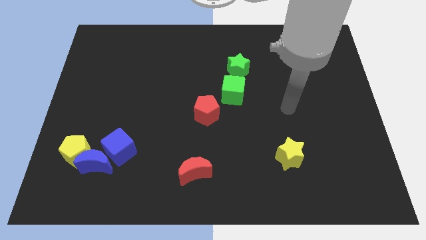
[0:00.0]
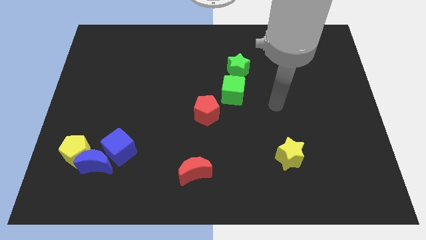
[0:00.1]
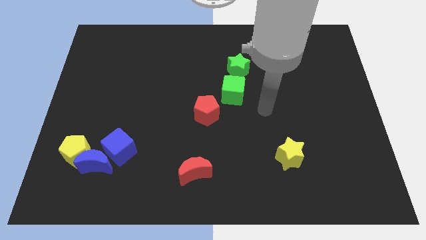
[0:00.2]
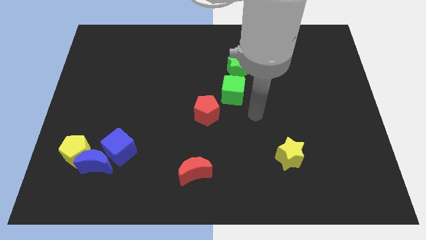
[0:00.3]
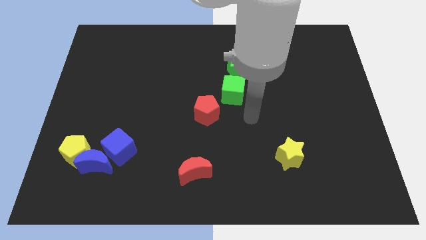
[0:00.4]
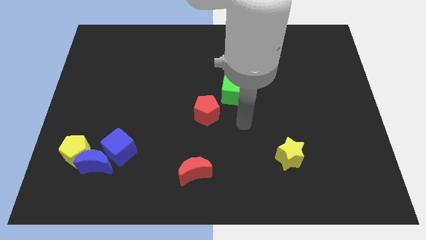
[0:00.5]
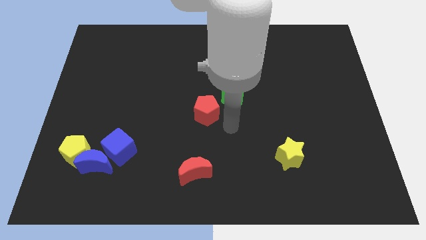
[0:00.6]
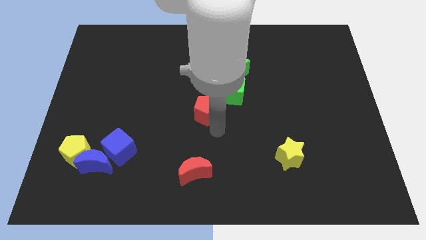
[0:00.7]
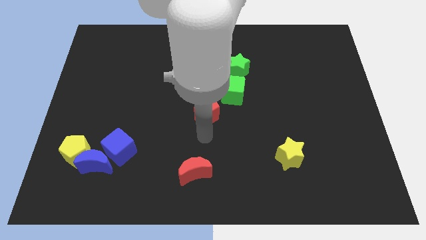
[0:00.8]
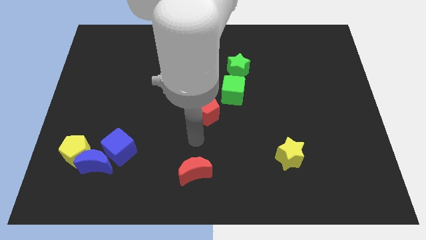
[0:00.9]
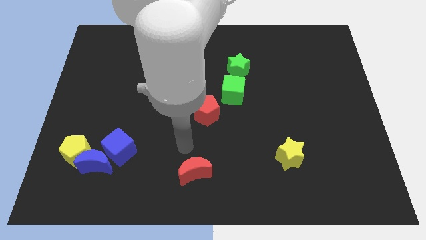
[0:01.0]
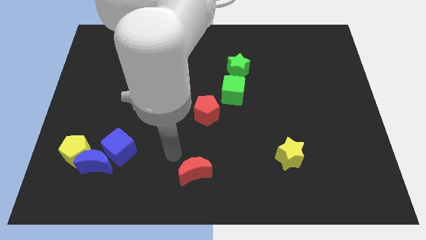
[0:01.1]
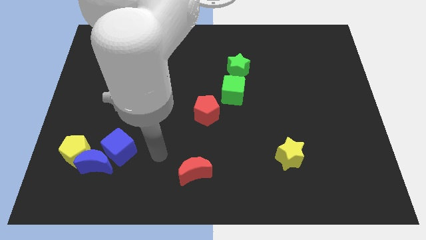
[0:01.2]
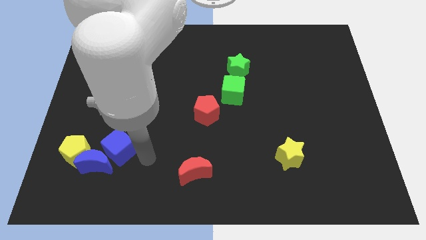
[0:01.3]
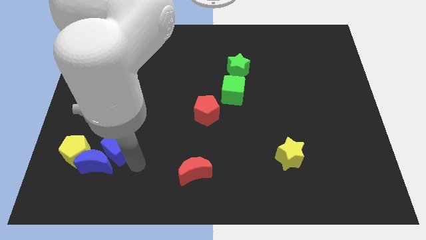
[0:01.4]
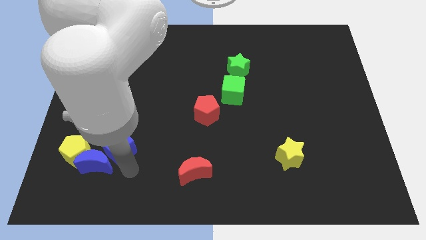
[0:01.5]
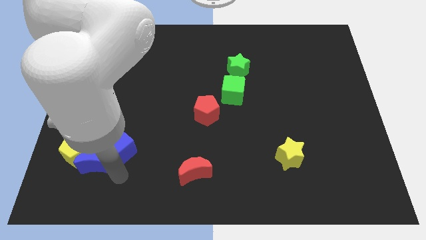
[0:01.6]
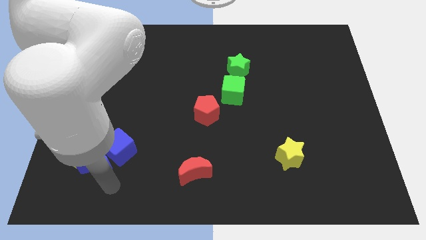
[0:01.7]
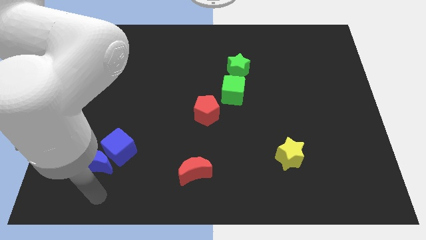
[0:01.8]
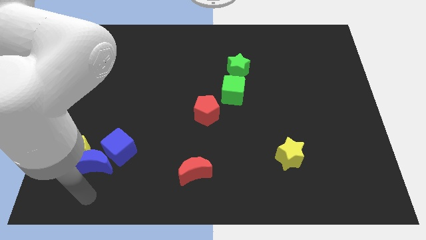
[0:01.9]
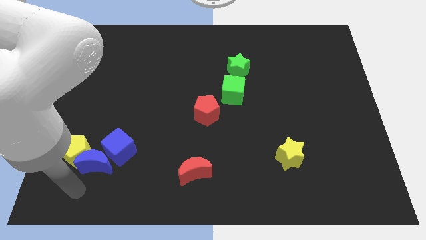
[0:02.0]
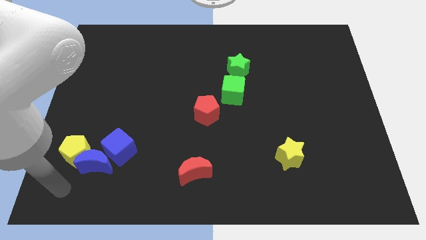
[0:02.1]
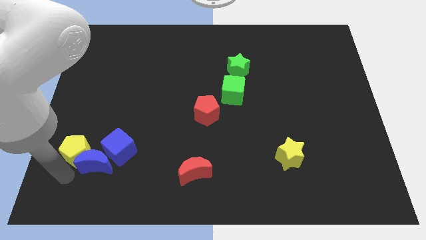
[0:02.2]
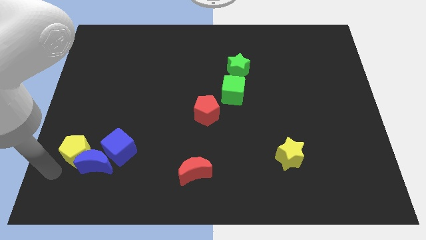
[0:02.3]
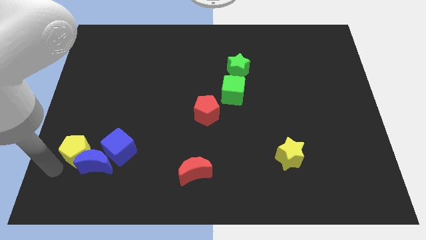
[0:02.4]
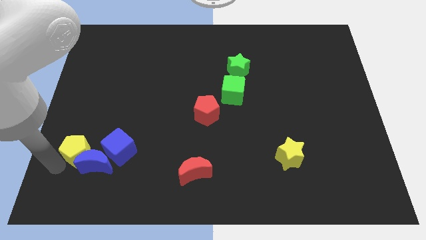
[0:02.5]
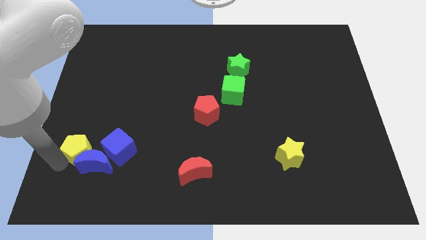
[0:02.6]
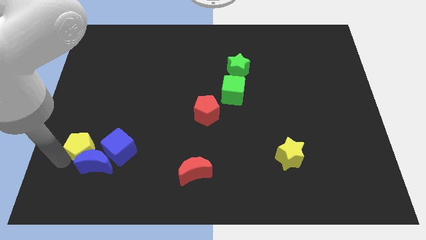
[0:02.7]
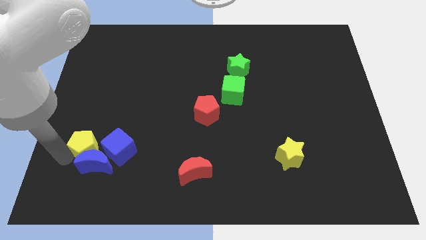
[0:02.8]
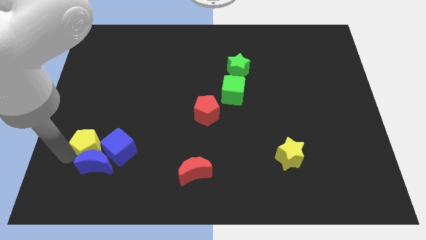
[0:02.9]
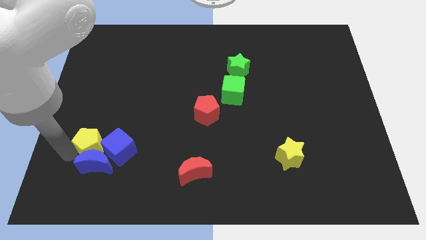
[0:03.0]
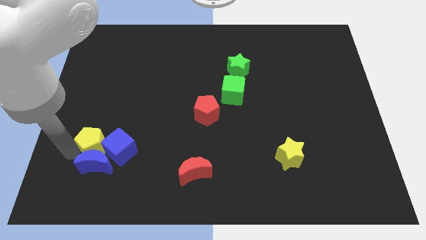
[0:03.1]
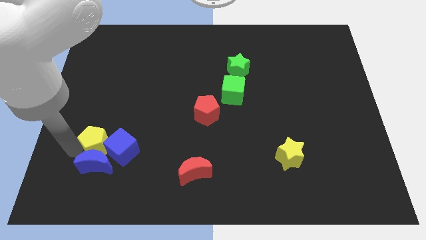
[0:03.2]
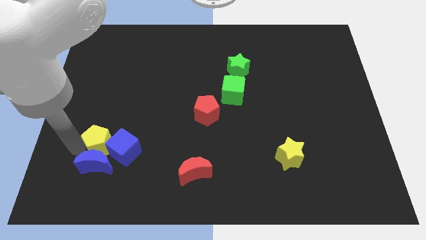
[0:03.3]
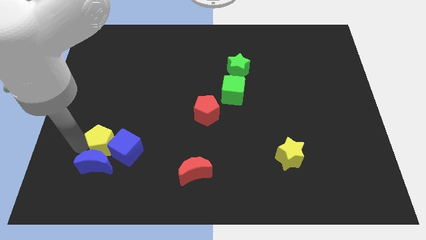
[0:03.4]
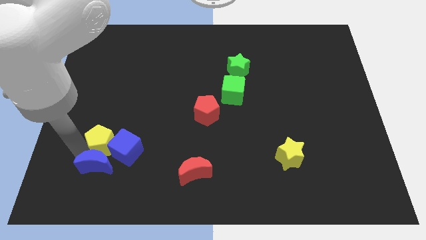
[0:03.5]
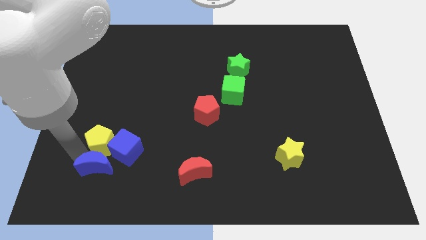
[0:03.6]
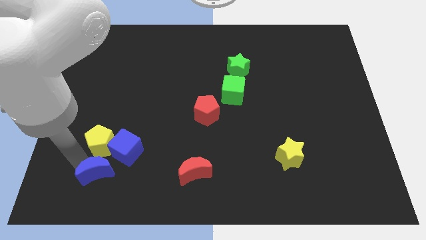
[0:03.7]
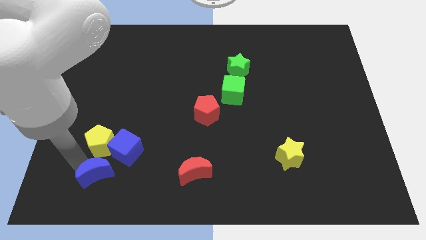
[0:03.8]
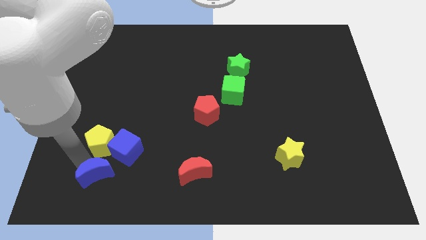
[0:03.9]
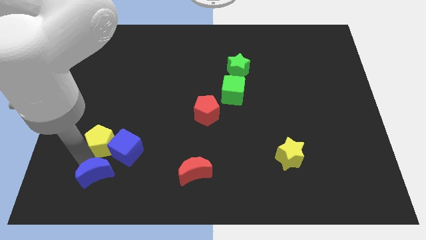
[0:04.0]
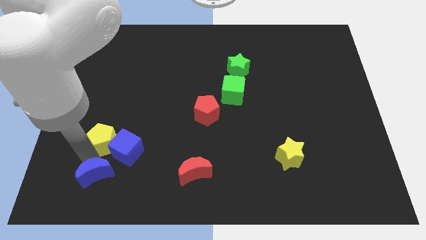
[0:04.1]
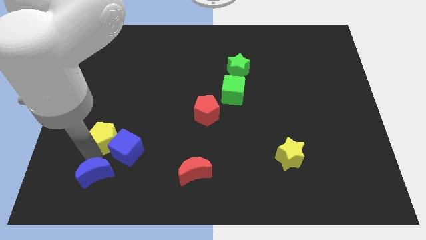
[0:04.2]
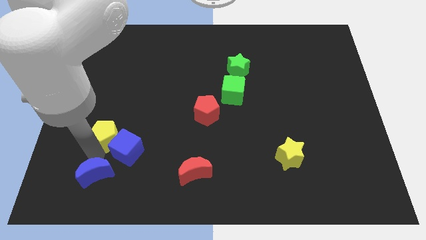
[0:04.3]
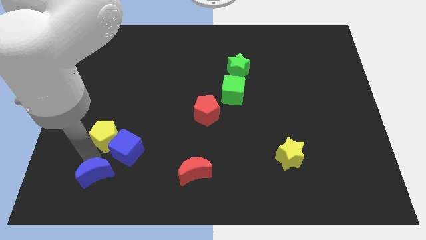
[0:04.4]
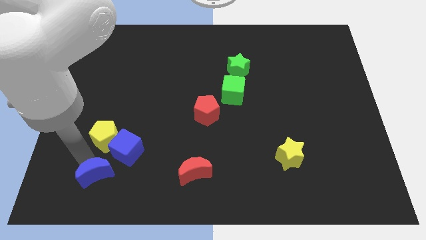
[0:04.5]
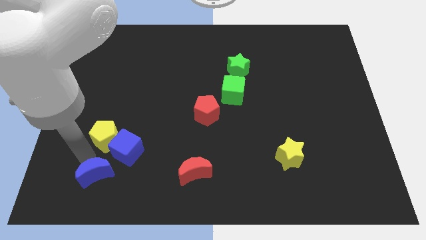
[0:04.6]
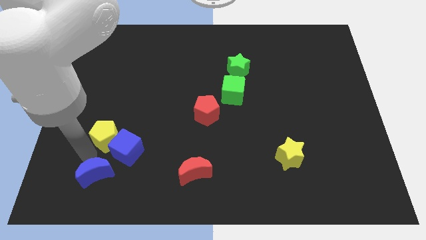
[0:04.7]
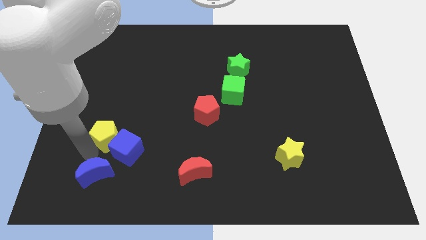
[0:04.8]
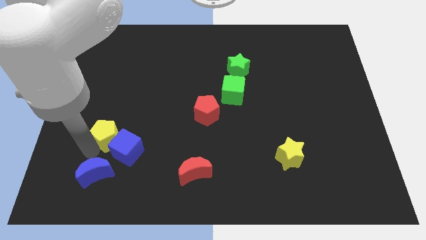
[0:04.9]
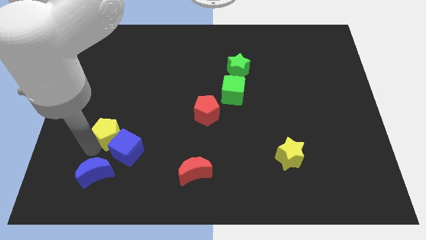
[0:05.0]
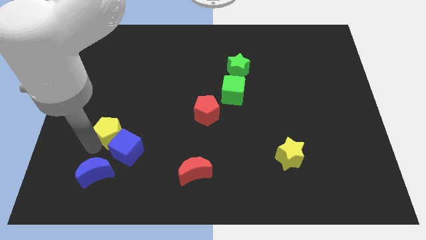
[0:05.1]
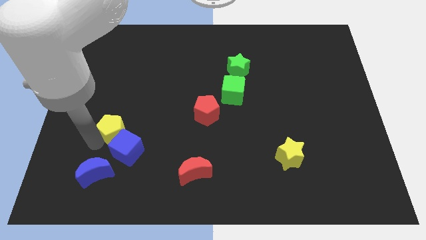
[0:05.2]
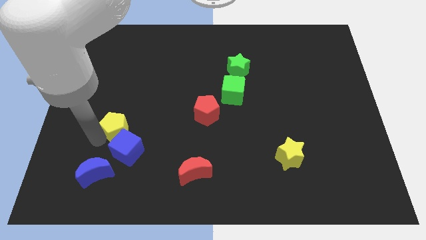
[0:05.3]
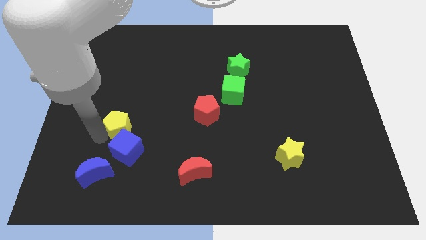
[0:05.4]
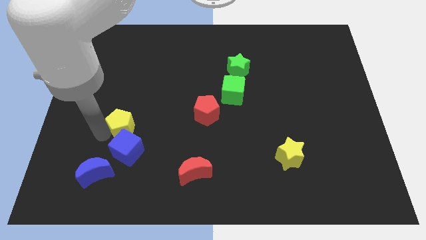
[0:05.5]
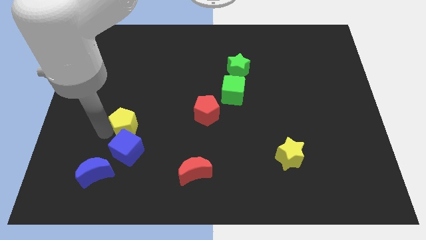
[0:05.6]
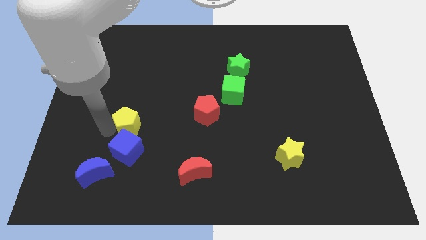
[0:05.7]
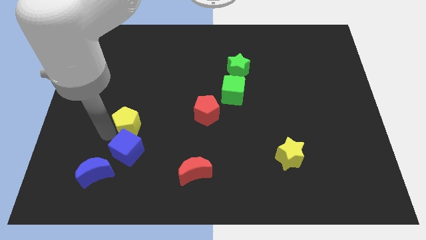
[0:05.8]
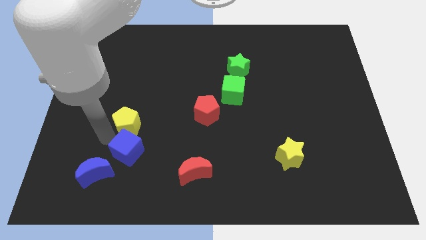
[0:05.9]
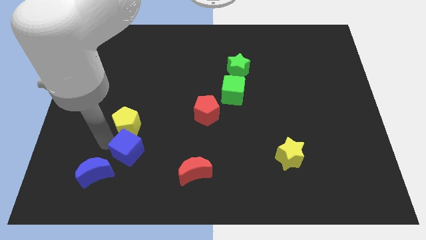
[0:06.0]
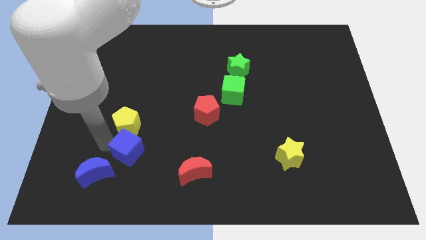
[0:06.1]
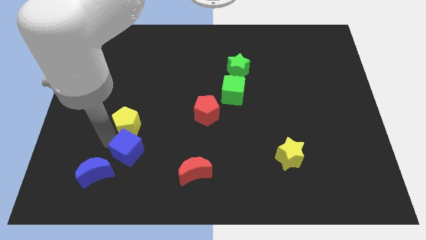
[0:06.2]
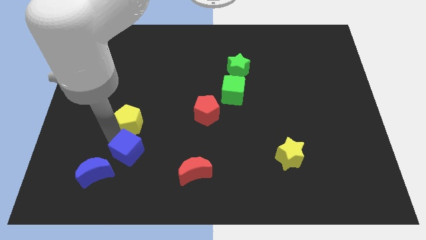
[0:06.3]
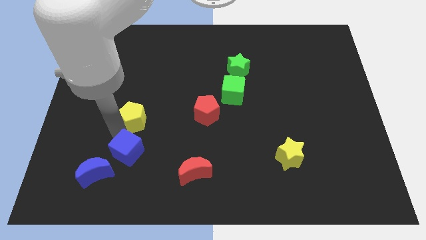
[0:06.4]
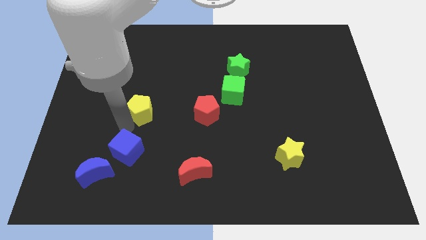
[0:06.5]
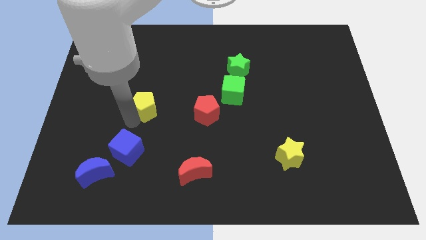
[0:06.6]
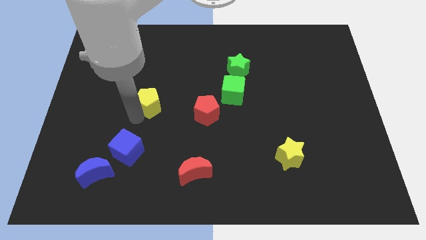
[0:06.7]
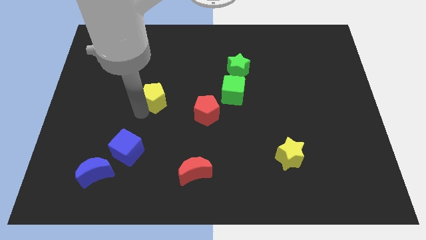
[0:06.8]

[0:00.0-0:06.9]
slide the yellow pentagon upwards and then right

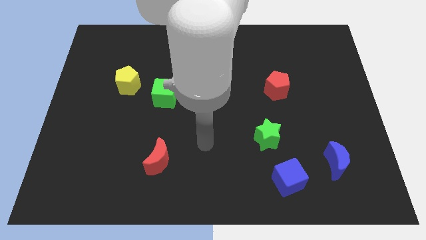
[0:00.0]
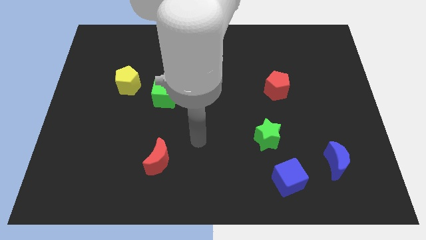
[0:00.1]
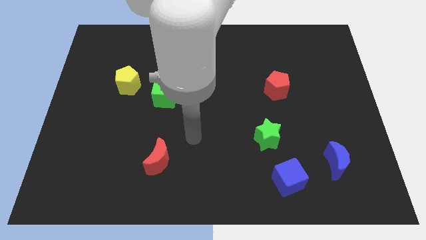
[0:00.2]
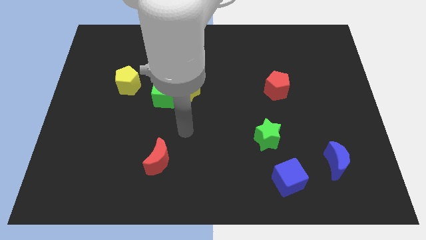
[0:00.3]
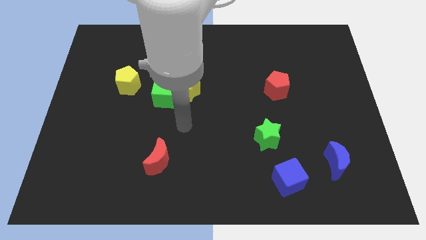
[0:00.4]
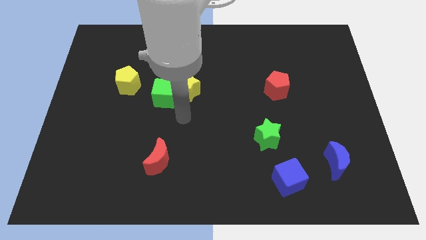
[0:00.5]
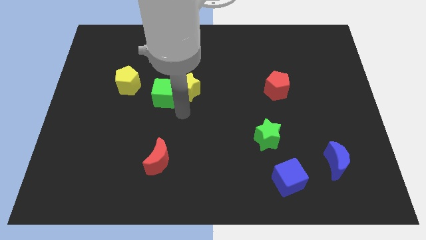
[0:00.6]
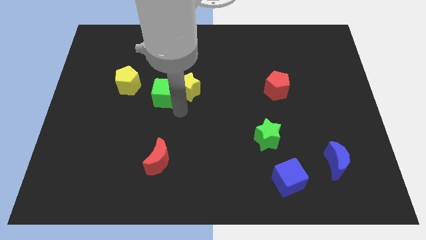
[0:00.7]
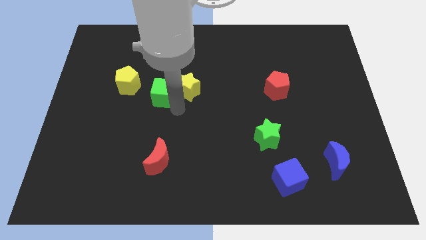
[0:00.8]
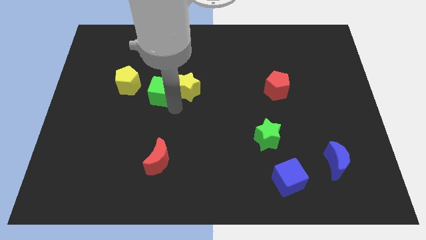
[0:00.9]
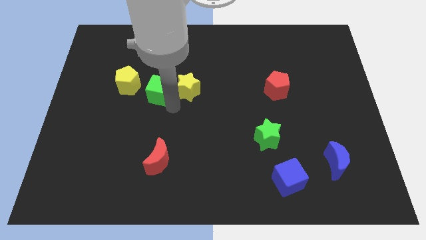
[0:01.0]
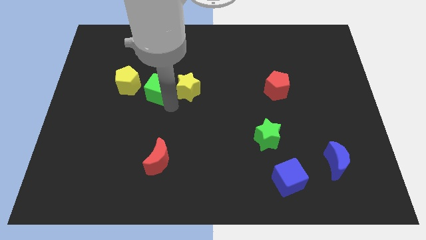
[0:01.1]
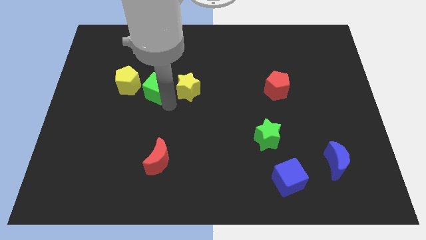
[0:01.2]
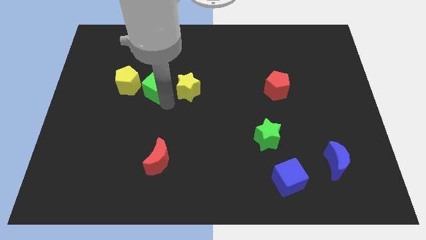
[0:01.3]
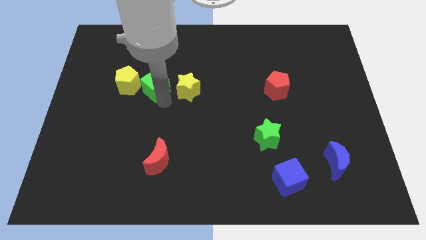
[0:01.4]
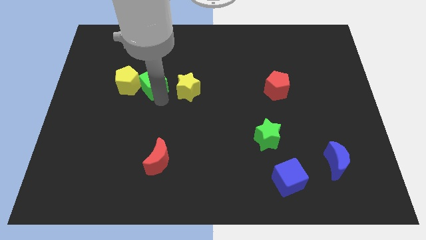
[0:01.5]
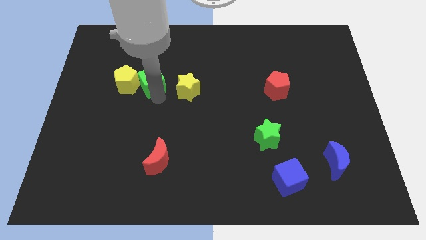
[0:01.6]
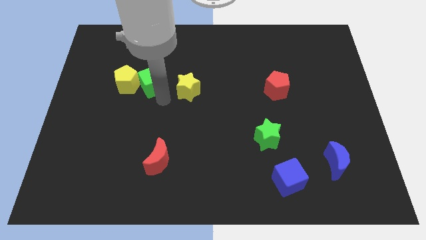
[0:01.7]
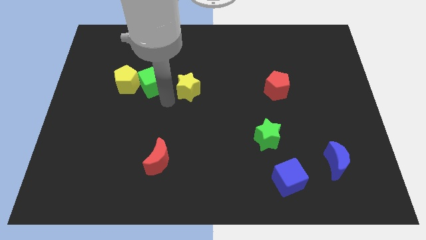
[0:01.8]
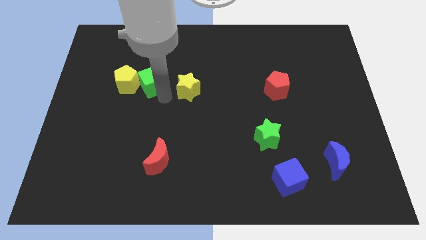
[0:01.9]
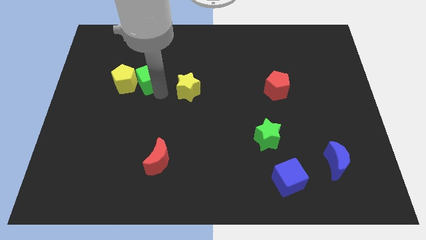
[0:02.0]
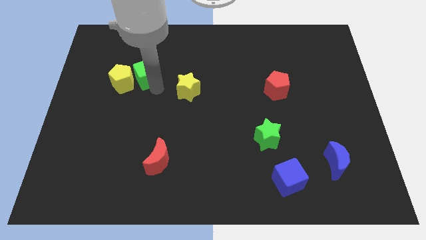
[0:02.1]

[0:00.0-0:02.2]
push the green cube a little upwards and left
